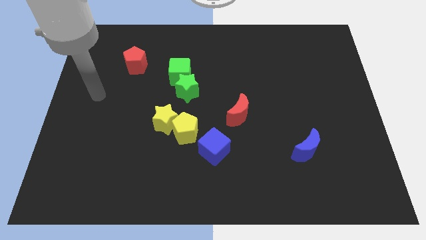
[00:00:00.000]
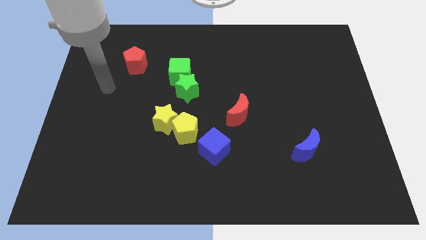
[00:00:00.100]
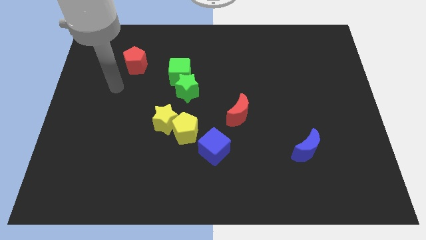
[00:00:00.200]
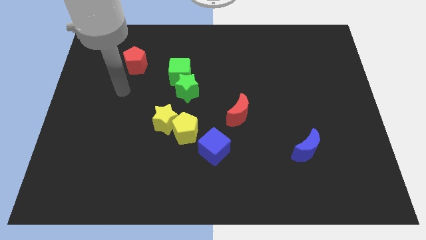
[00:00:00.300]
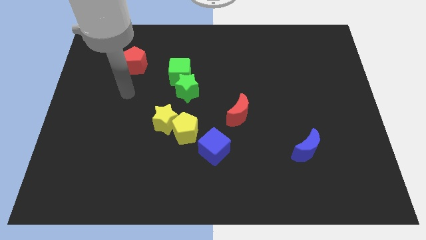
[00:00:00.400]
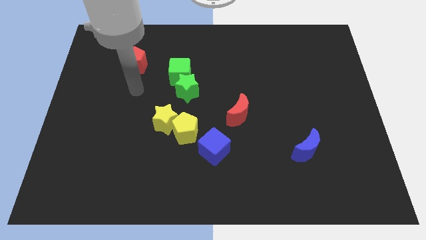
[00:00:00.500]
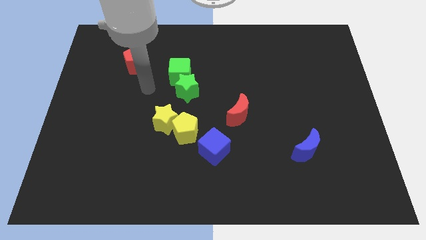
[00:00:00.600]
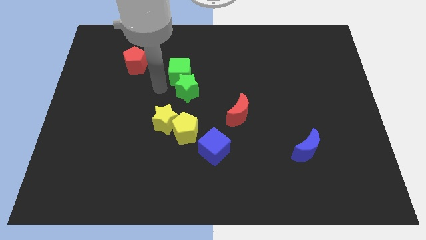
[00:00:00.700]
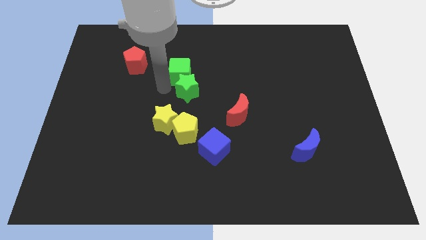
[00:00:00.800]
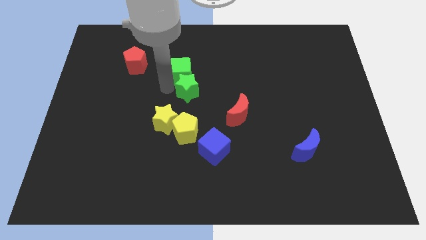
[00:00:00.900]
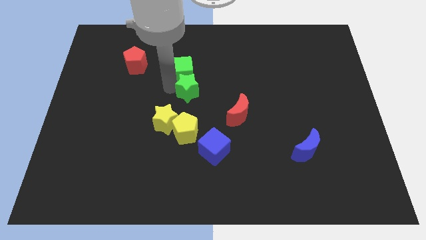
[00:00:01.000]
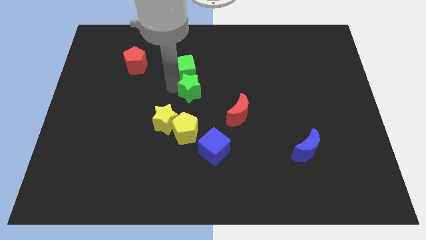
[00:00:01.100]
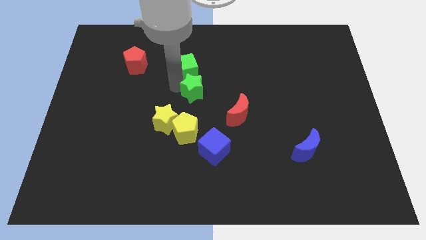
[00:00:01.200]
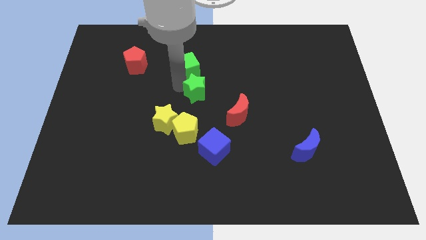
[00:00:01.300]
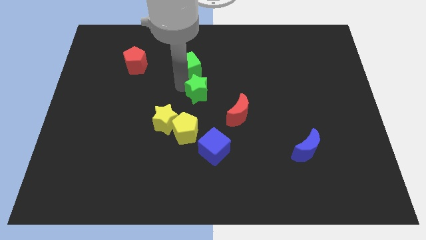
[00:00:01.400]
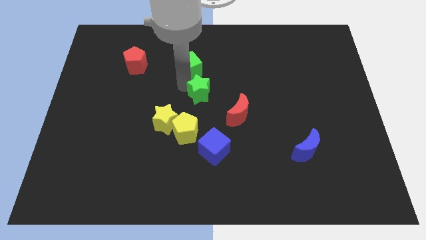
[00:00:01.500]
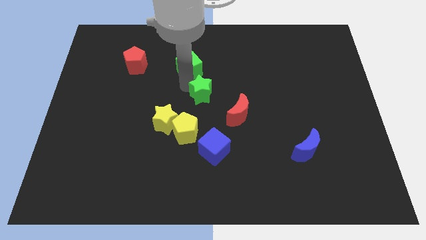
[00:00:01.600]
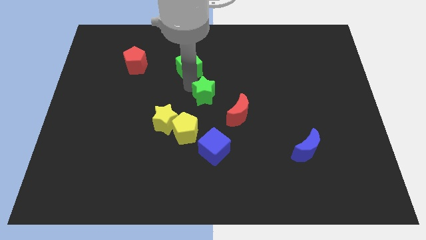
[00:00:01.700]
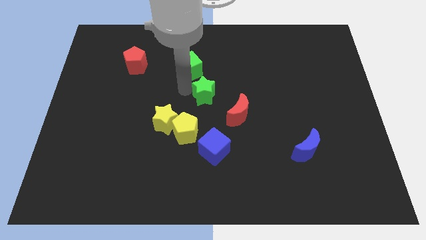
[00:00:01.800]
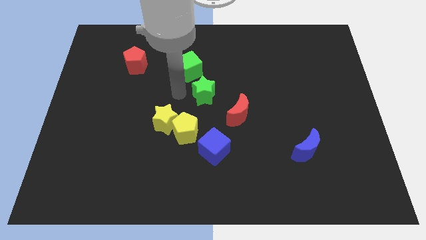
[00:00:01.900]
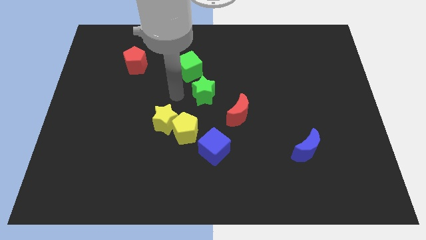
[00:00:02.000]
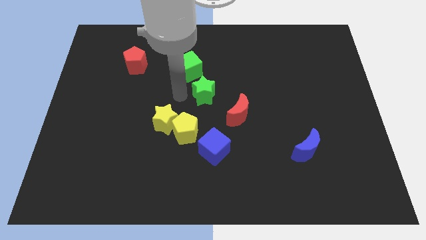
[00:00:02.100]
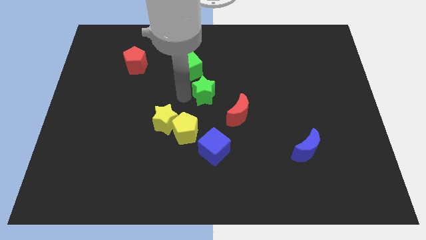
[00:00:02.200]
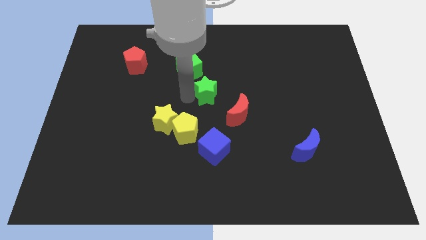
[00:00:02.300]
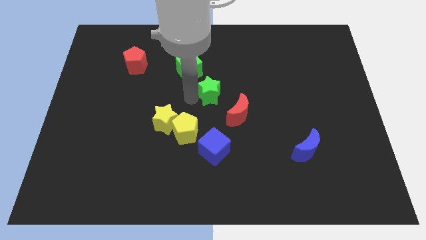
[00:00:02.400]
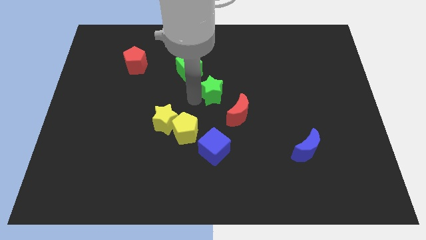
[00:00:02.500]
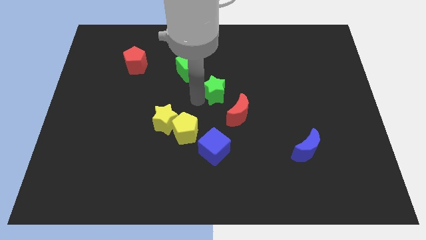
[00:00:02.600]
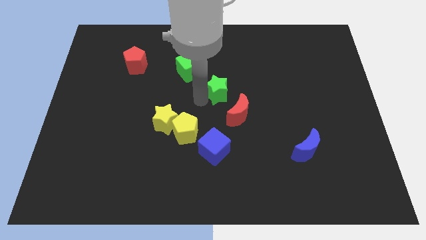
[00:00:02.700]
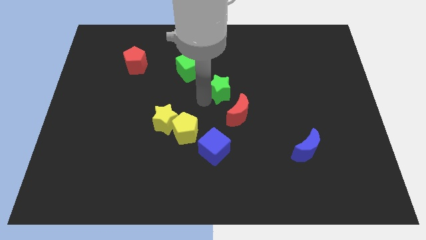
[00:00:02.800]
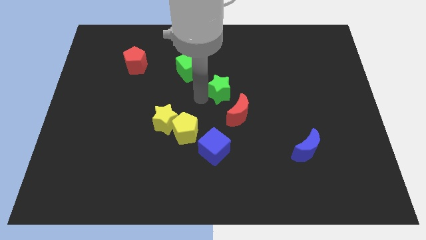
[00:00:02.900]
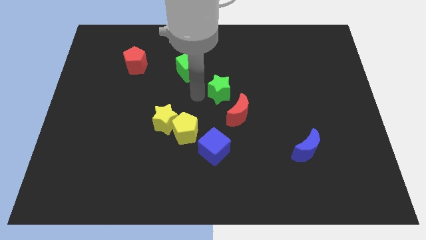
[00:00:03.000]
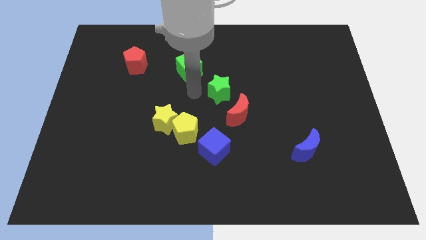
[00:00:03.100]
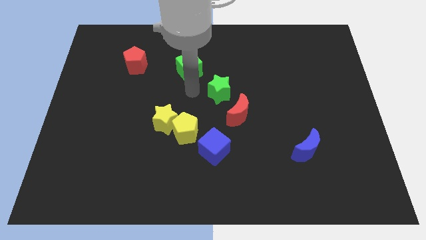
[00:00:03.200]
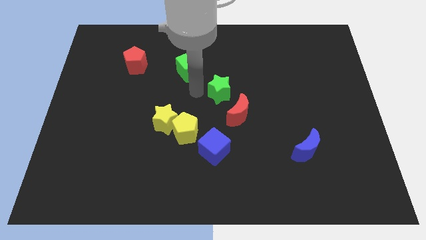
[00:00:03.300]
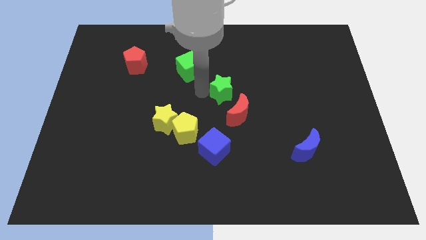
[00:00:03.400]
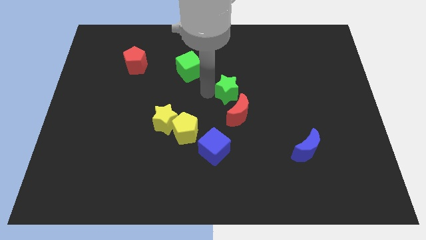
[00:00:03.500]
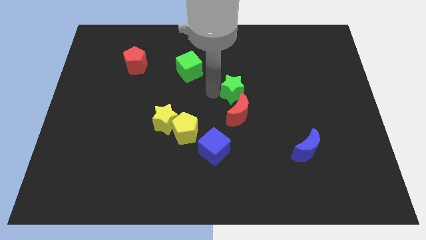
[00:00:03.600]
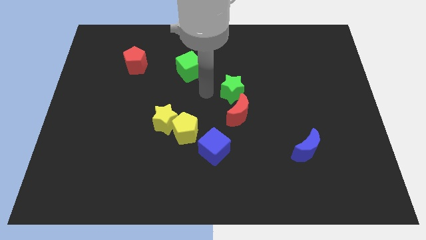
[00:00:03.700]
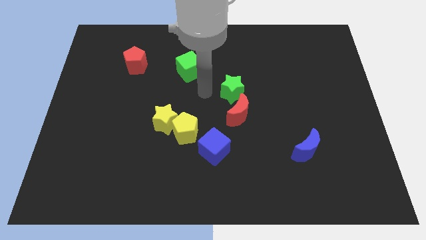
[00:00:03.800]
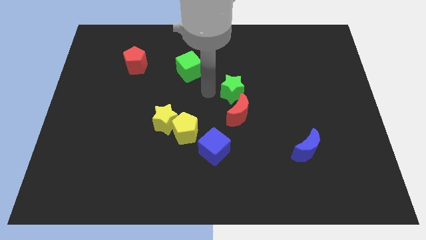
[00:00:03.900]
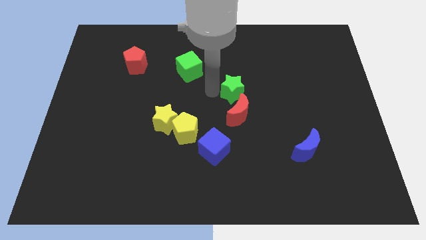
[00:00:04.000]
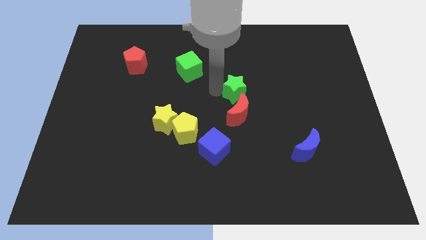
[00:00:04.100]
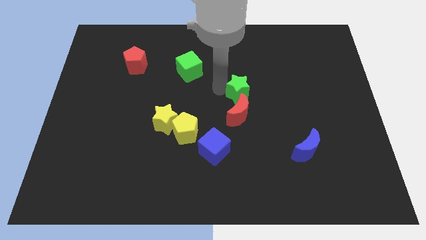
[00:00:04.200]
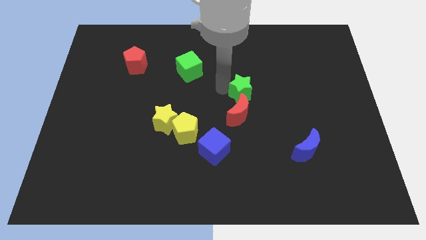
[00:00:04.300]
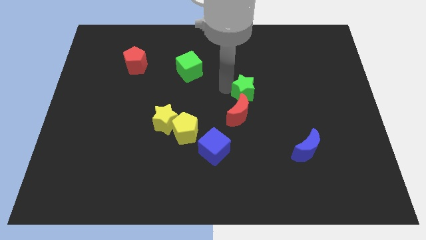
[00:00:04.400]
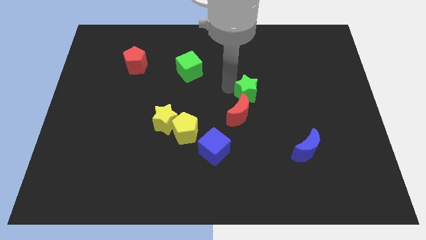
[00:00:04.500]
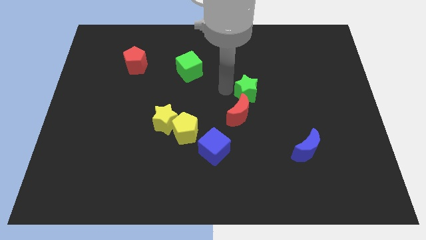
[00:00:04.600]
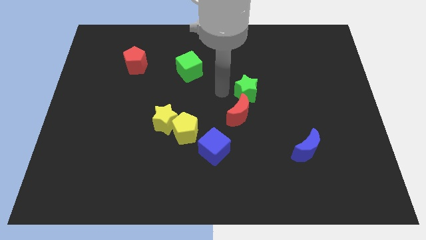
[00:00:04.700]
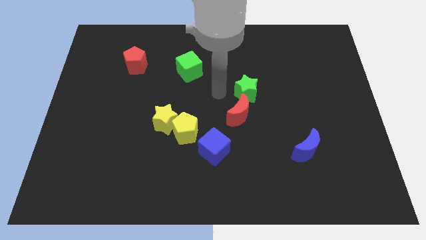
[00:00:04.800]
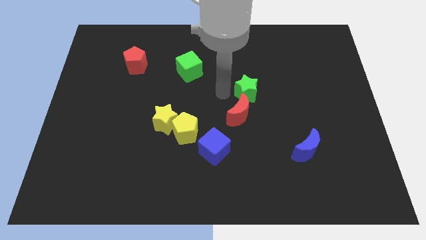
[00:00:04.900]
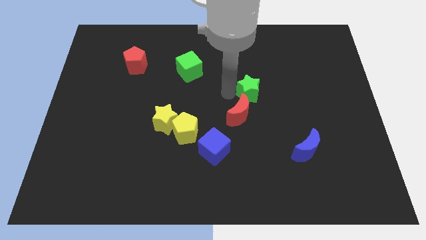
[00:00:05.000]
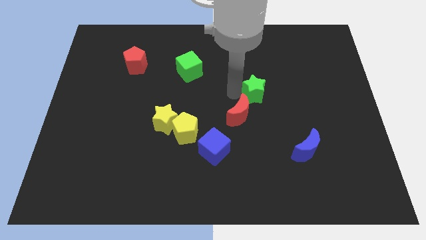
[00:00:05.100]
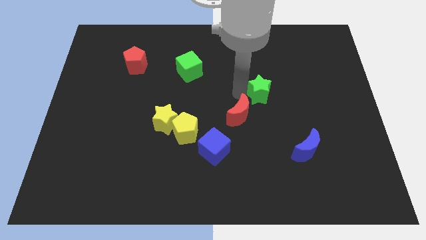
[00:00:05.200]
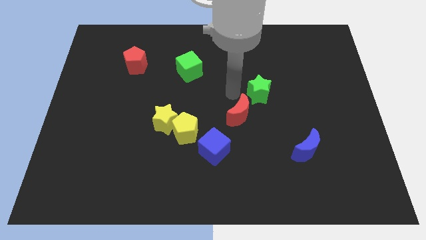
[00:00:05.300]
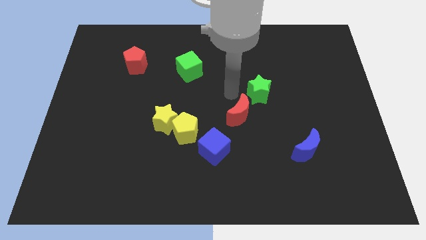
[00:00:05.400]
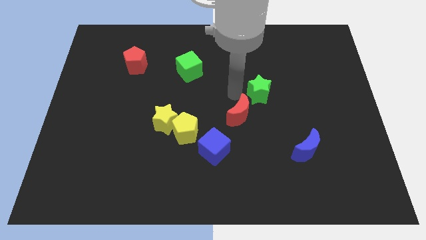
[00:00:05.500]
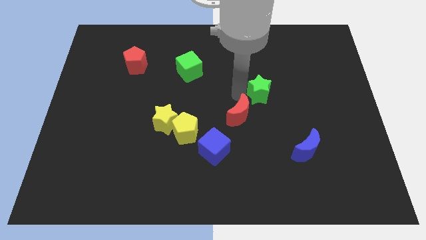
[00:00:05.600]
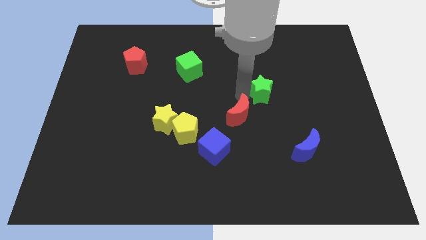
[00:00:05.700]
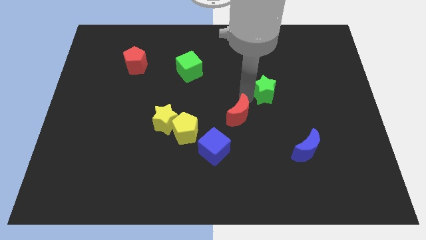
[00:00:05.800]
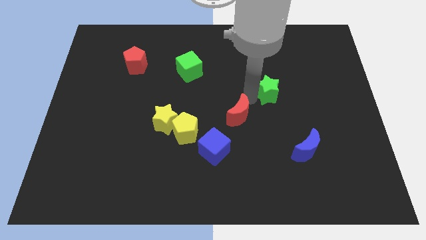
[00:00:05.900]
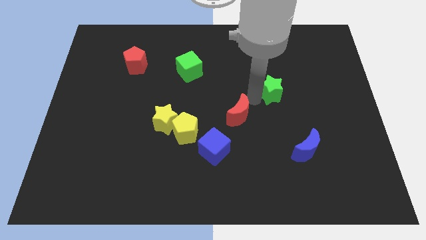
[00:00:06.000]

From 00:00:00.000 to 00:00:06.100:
push the green star right

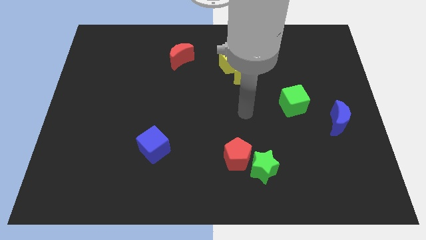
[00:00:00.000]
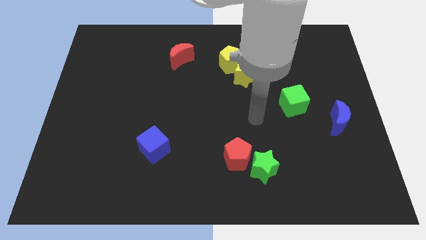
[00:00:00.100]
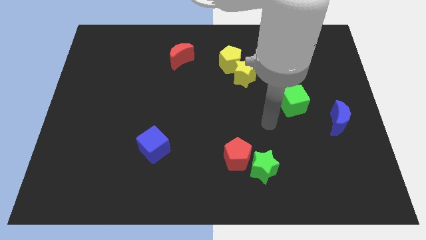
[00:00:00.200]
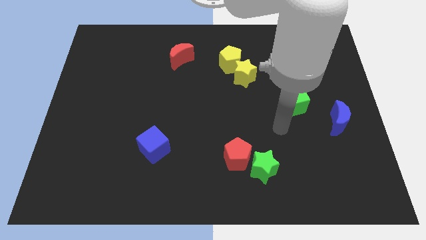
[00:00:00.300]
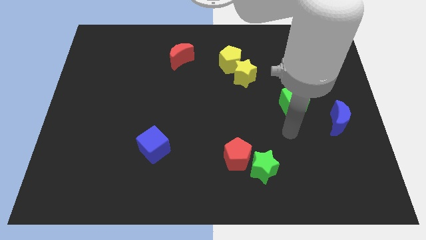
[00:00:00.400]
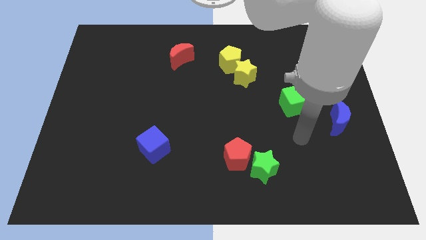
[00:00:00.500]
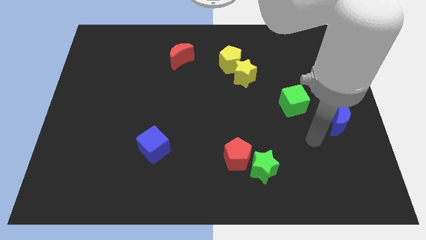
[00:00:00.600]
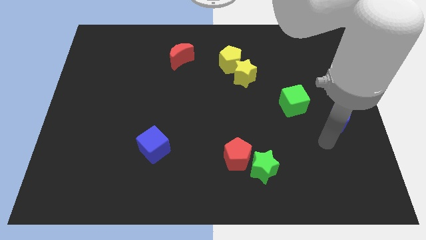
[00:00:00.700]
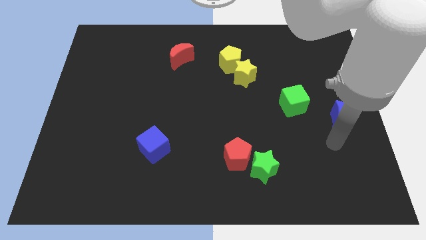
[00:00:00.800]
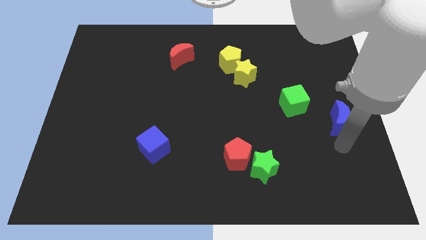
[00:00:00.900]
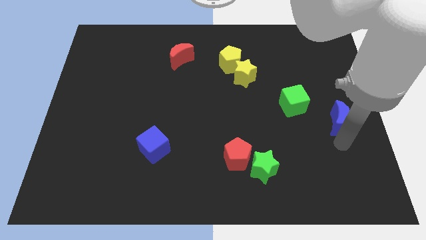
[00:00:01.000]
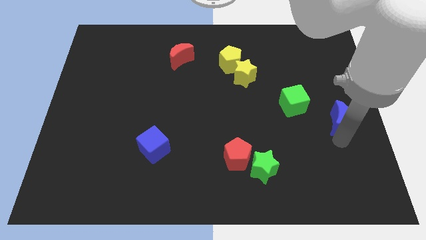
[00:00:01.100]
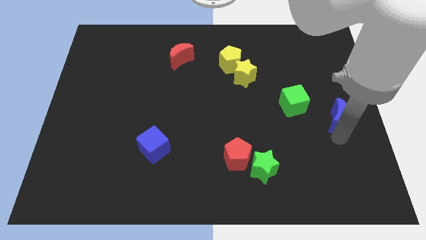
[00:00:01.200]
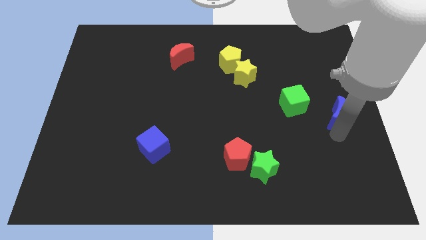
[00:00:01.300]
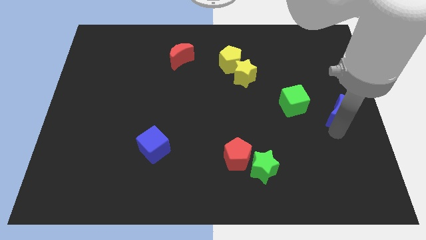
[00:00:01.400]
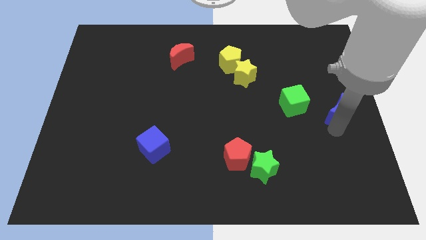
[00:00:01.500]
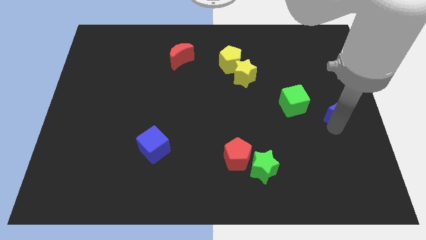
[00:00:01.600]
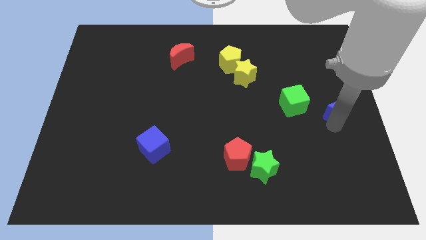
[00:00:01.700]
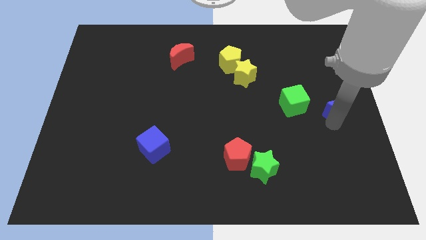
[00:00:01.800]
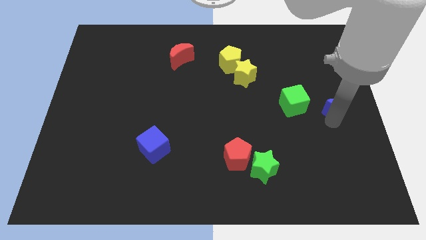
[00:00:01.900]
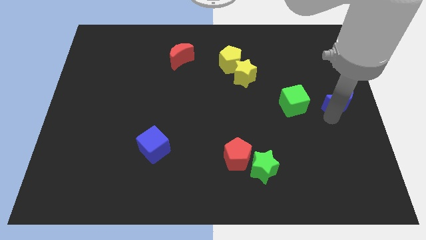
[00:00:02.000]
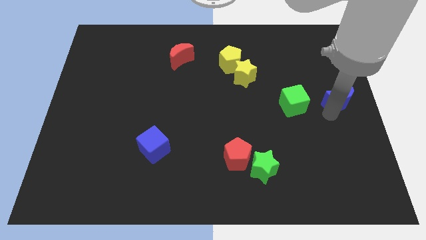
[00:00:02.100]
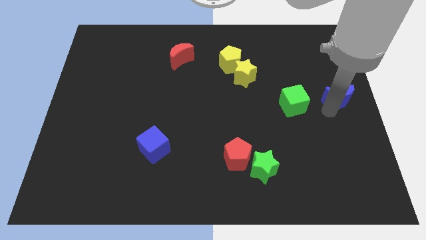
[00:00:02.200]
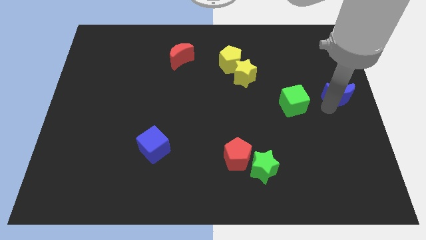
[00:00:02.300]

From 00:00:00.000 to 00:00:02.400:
slightly slide the blue moon upwards
